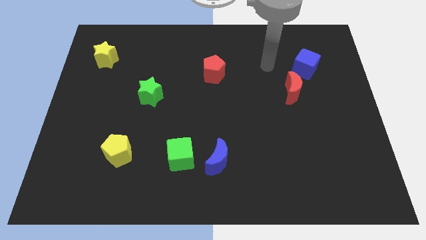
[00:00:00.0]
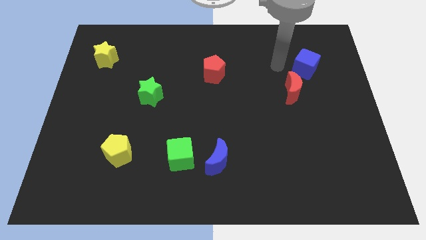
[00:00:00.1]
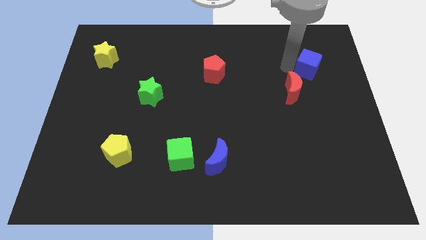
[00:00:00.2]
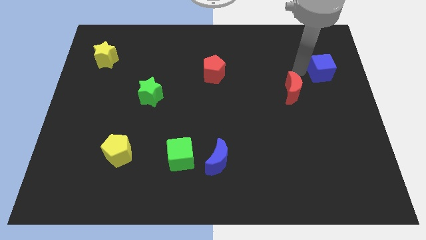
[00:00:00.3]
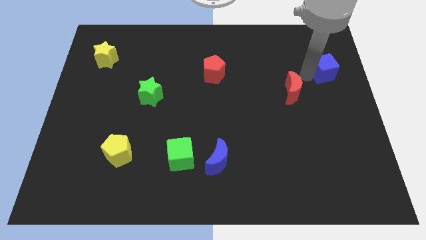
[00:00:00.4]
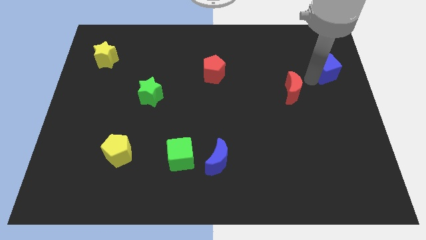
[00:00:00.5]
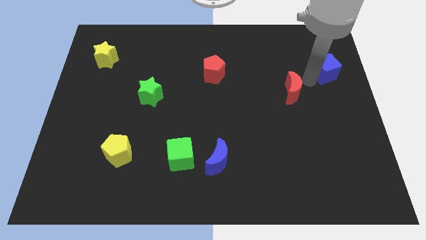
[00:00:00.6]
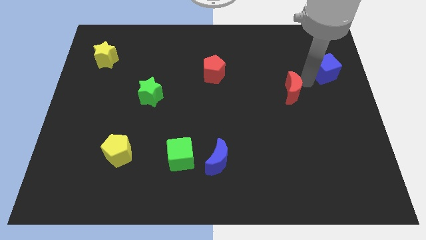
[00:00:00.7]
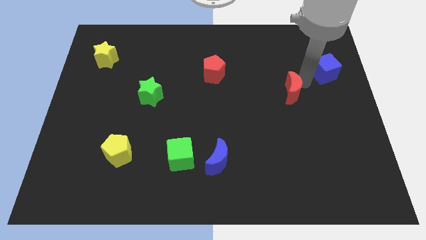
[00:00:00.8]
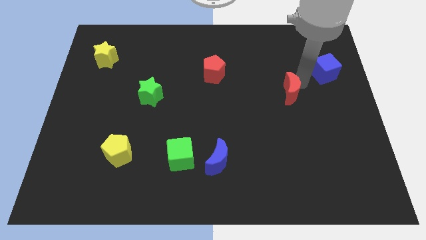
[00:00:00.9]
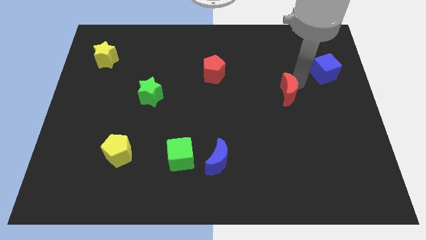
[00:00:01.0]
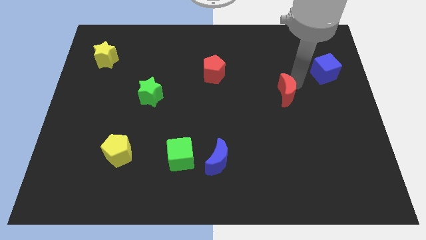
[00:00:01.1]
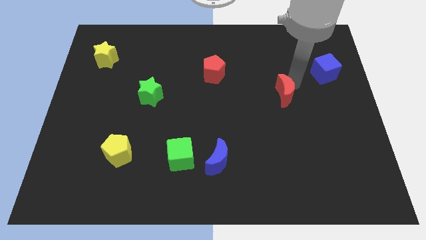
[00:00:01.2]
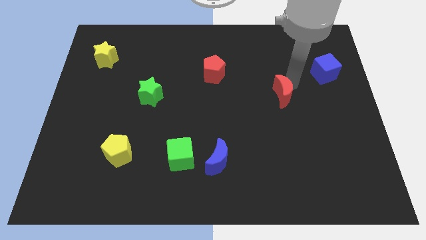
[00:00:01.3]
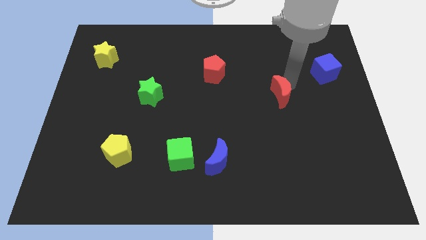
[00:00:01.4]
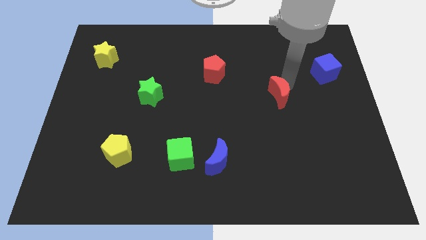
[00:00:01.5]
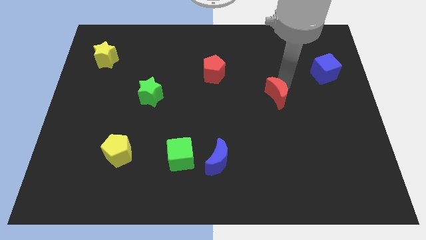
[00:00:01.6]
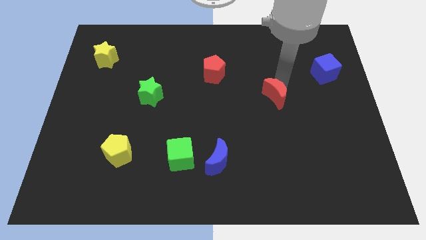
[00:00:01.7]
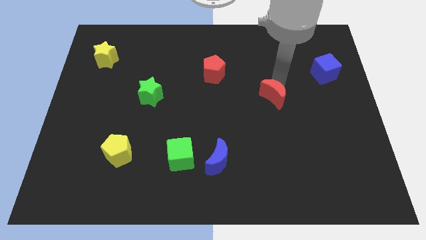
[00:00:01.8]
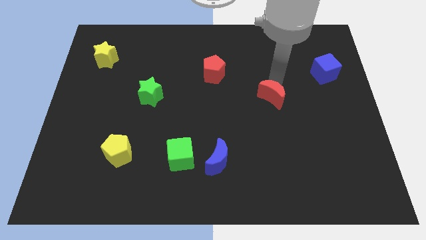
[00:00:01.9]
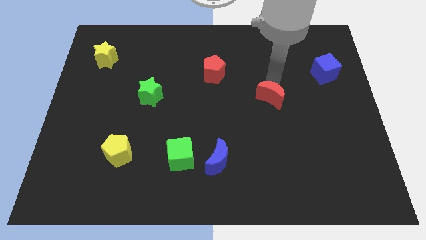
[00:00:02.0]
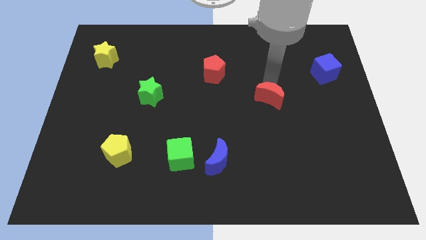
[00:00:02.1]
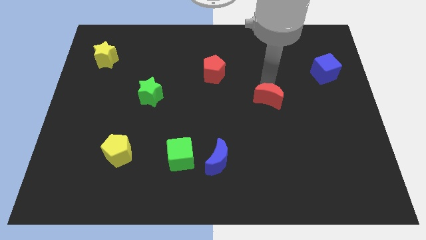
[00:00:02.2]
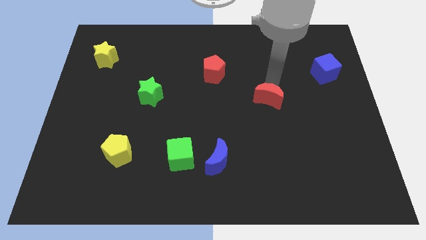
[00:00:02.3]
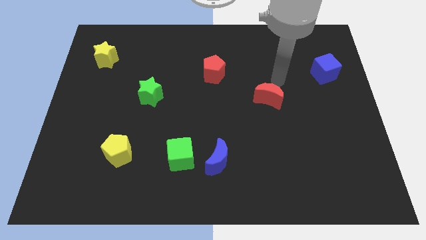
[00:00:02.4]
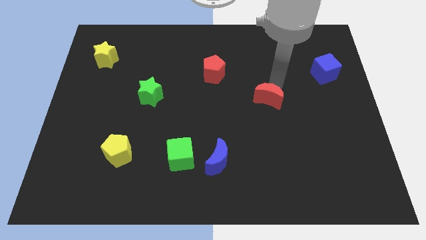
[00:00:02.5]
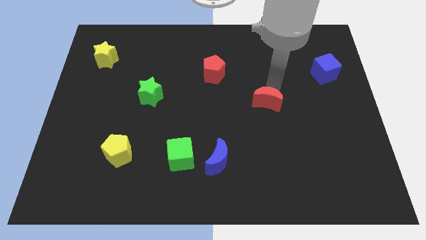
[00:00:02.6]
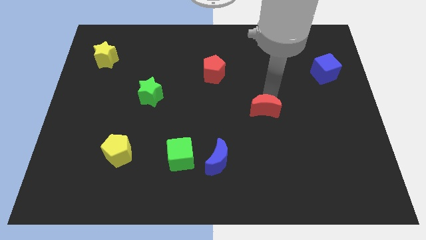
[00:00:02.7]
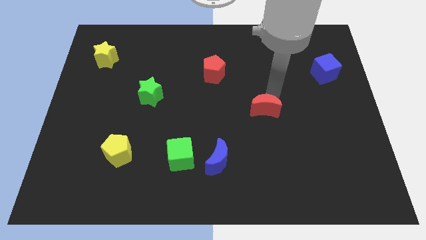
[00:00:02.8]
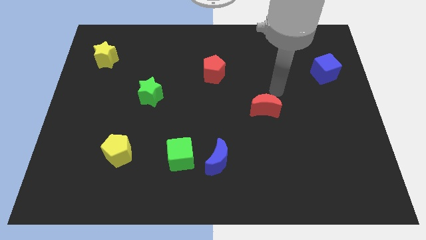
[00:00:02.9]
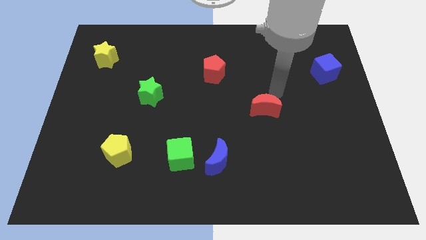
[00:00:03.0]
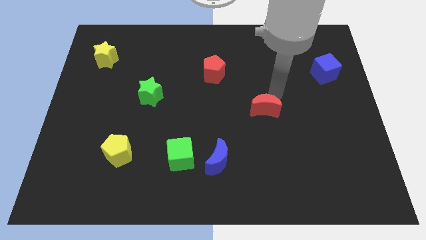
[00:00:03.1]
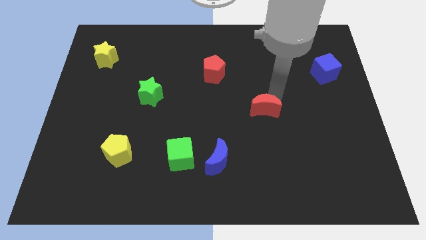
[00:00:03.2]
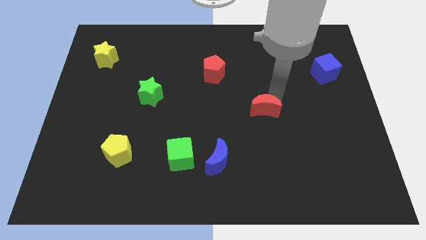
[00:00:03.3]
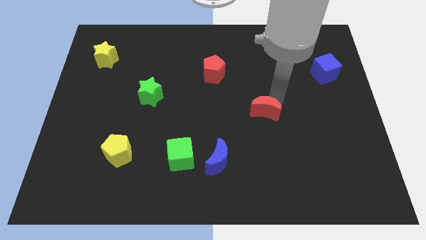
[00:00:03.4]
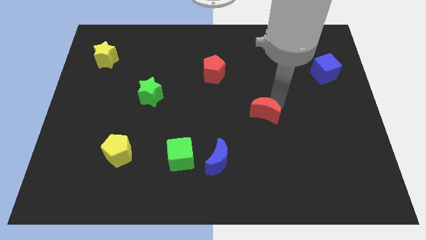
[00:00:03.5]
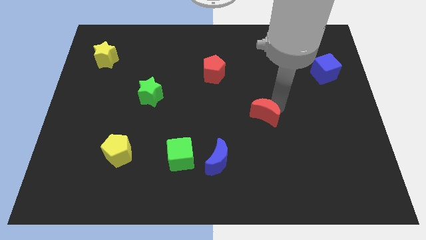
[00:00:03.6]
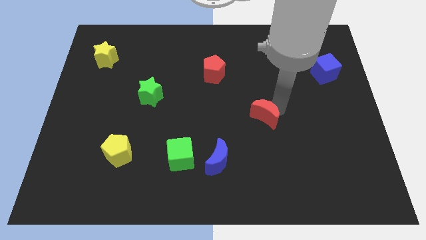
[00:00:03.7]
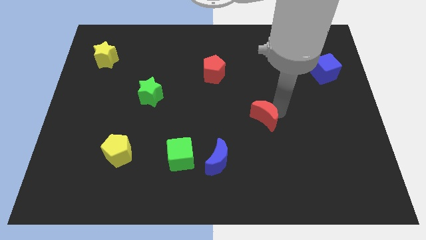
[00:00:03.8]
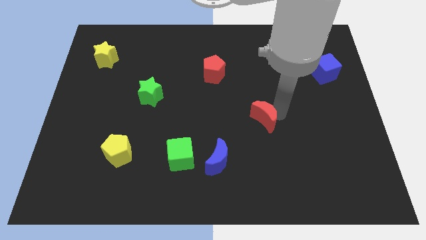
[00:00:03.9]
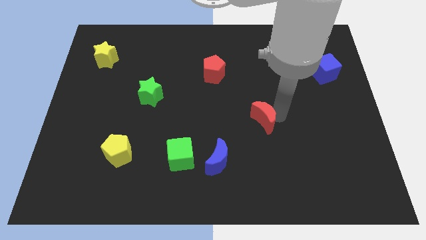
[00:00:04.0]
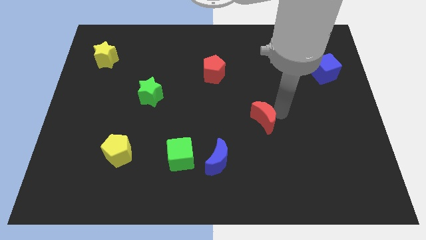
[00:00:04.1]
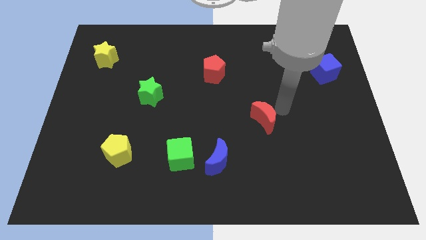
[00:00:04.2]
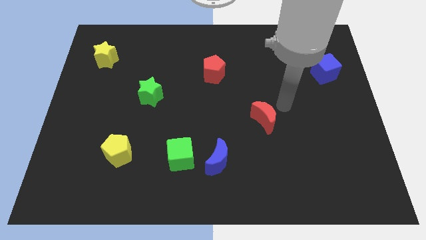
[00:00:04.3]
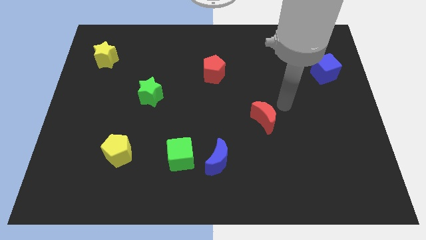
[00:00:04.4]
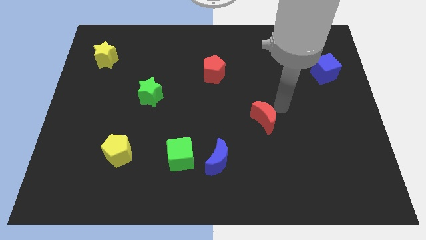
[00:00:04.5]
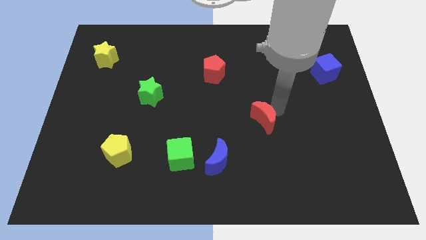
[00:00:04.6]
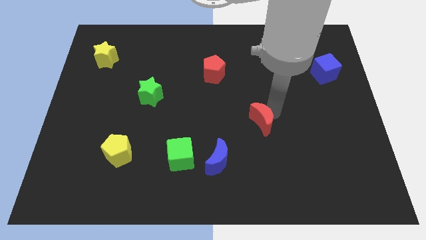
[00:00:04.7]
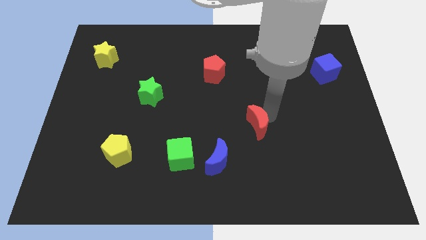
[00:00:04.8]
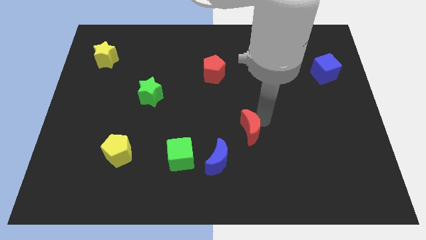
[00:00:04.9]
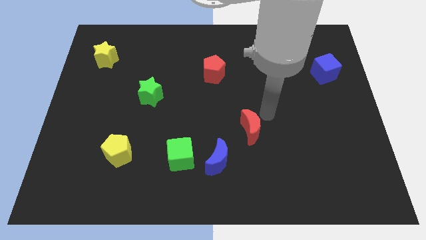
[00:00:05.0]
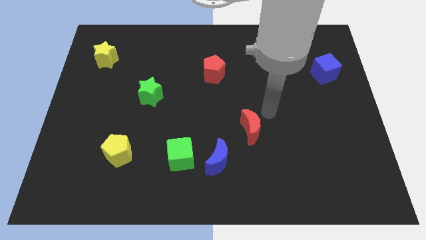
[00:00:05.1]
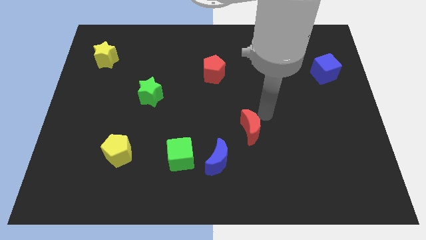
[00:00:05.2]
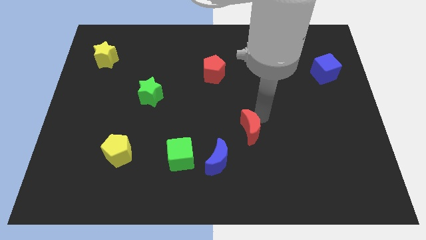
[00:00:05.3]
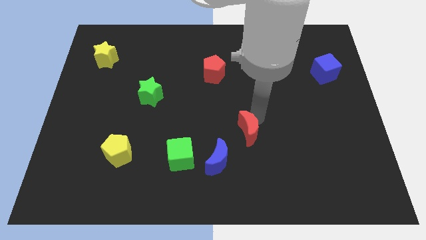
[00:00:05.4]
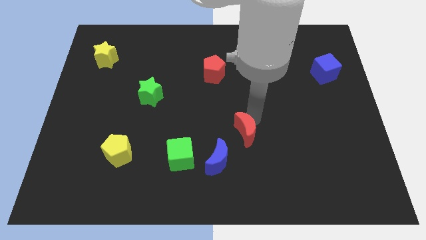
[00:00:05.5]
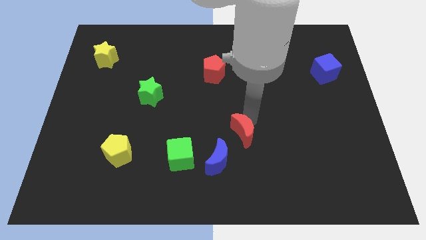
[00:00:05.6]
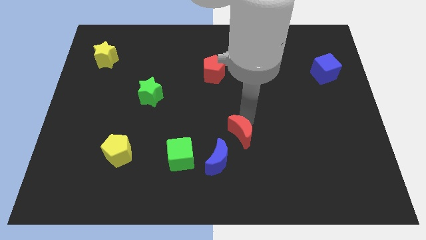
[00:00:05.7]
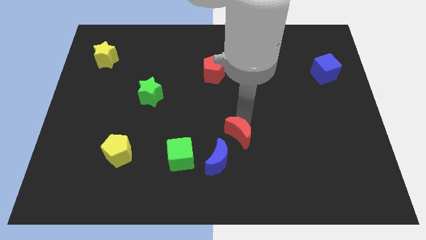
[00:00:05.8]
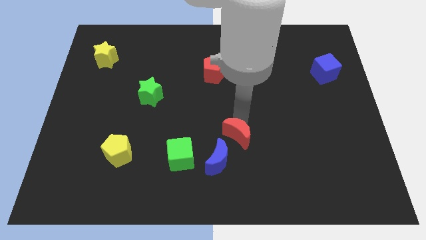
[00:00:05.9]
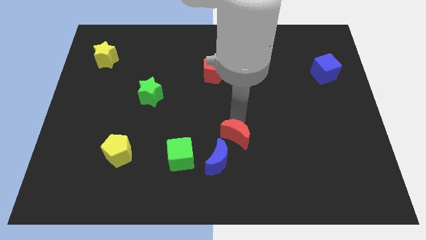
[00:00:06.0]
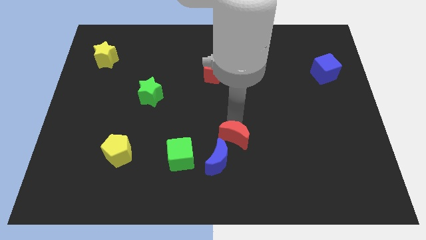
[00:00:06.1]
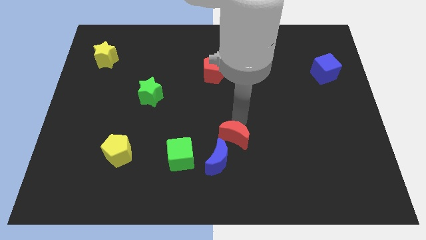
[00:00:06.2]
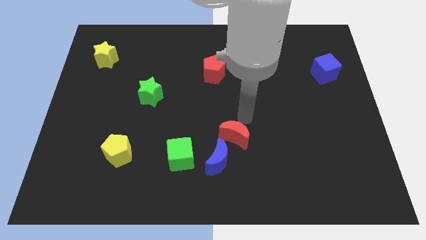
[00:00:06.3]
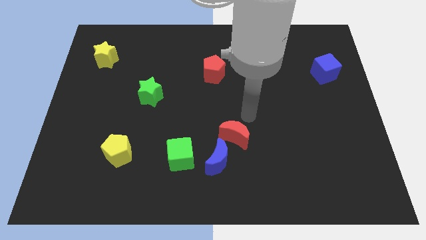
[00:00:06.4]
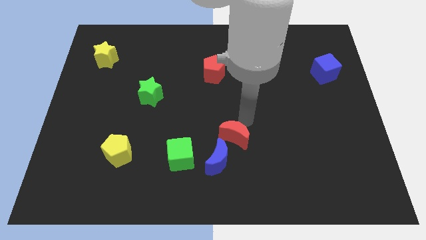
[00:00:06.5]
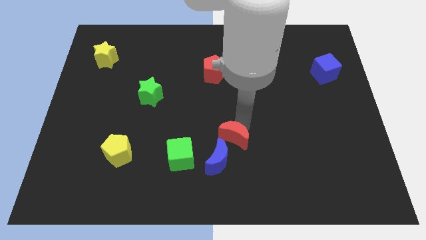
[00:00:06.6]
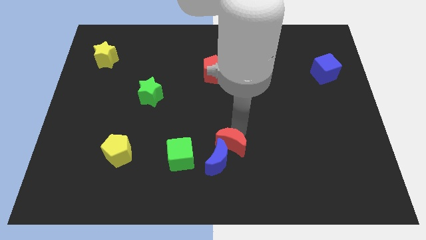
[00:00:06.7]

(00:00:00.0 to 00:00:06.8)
push the red moon next to the blue moon

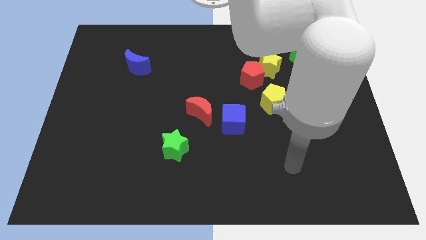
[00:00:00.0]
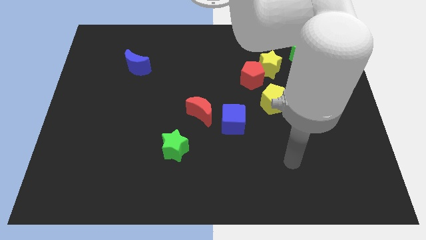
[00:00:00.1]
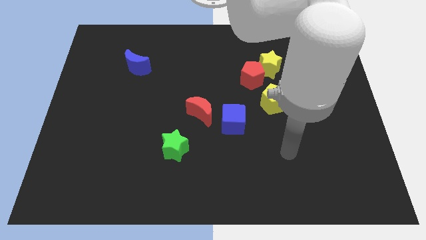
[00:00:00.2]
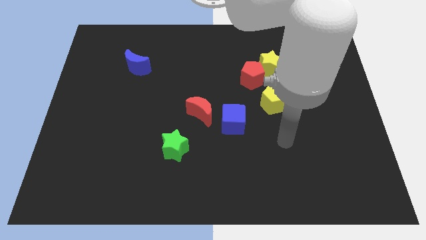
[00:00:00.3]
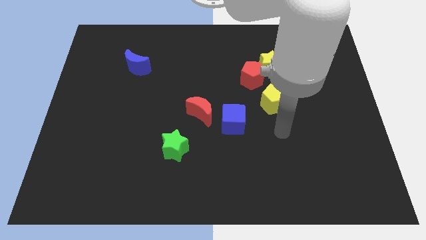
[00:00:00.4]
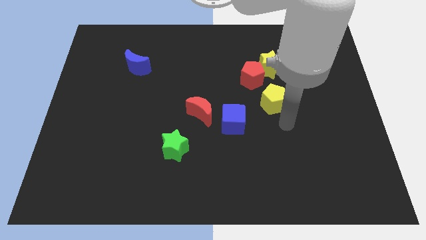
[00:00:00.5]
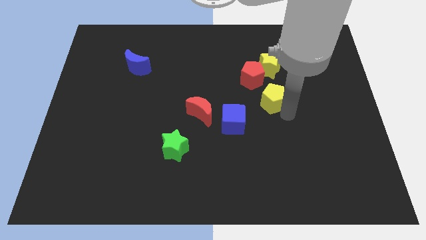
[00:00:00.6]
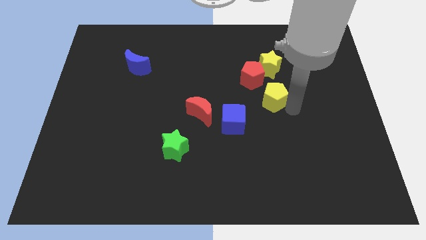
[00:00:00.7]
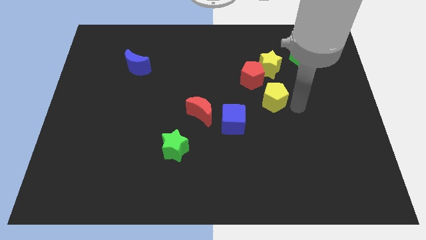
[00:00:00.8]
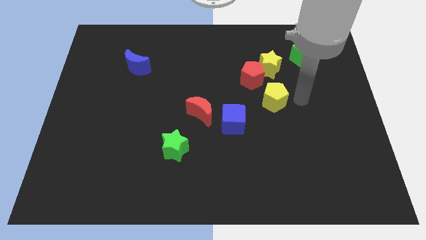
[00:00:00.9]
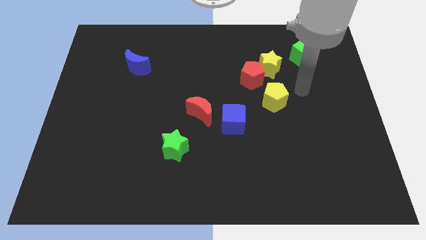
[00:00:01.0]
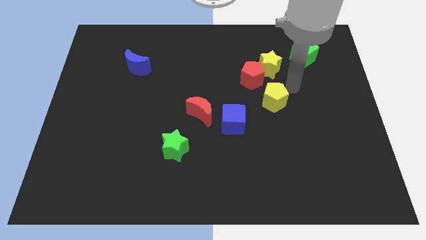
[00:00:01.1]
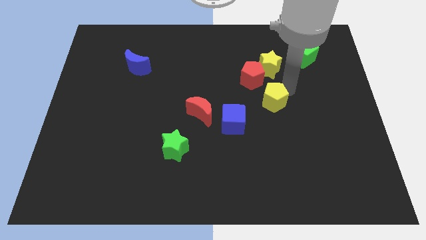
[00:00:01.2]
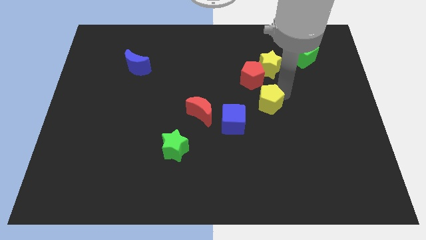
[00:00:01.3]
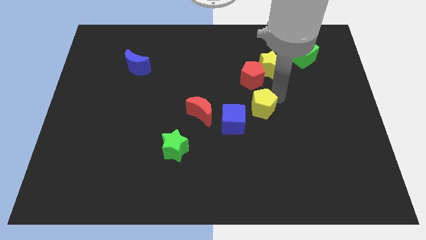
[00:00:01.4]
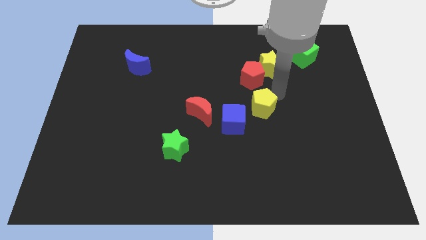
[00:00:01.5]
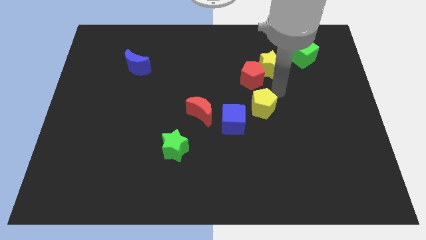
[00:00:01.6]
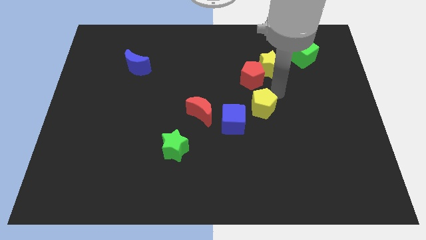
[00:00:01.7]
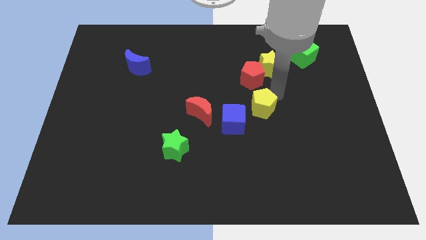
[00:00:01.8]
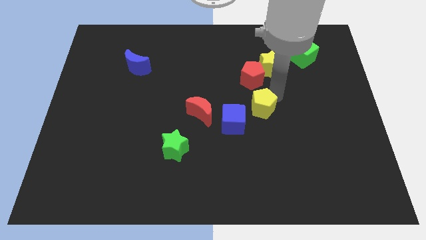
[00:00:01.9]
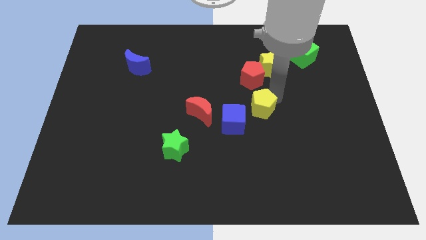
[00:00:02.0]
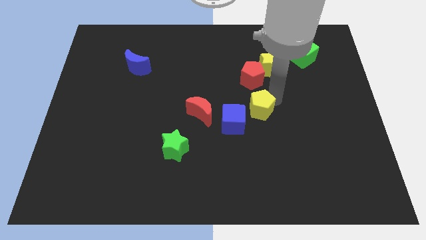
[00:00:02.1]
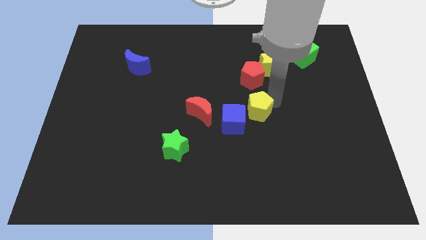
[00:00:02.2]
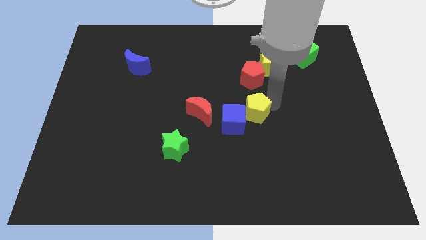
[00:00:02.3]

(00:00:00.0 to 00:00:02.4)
slide the yellow pentagon towards the blue cube
